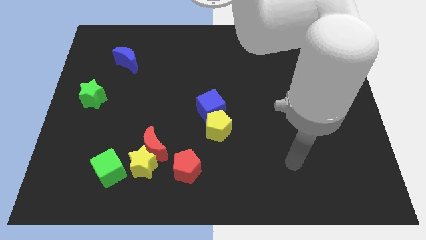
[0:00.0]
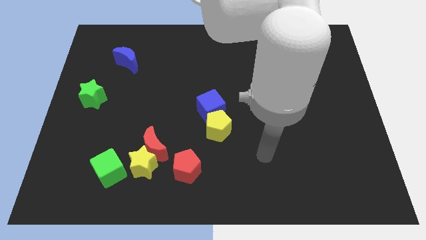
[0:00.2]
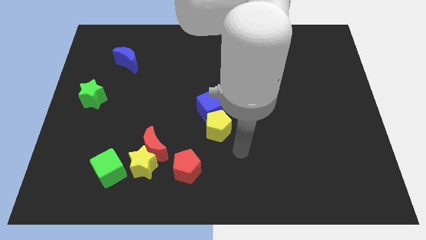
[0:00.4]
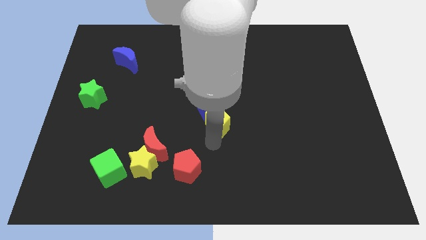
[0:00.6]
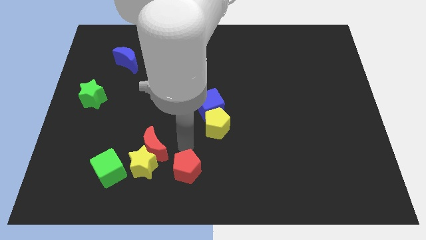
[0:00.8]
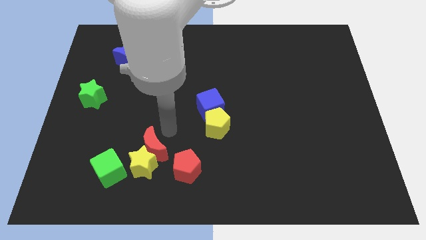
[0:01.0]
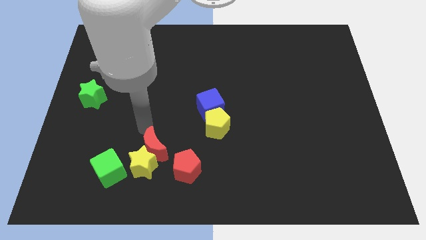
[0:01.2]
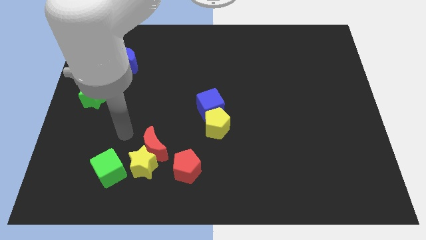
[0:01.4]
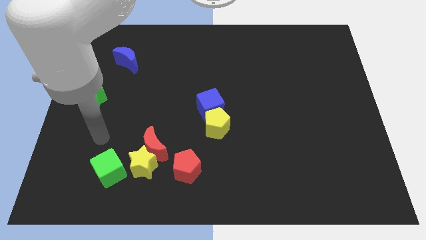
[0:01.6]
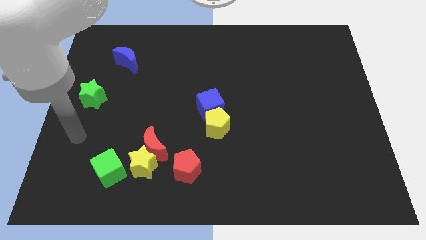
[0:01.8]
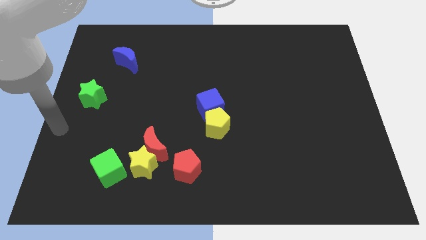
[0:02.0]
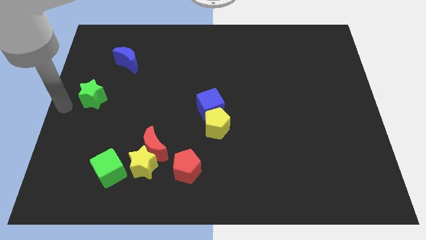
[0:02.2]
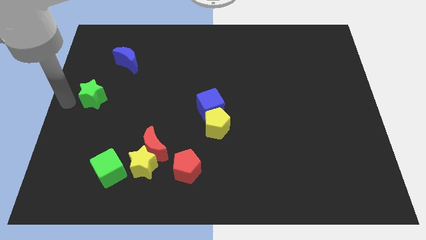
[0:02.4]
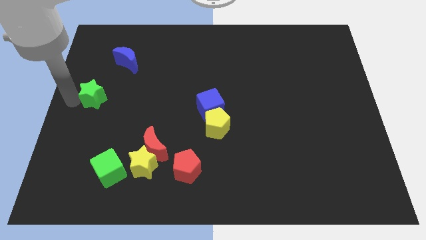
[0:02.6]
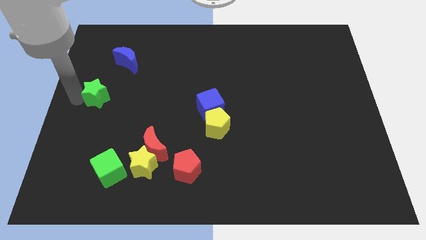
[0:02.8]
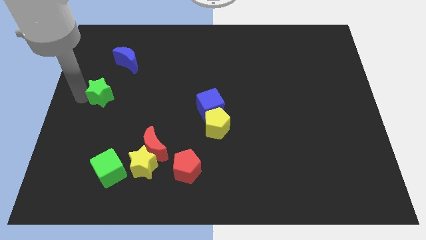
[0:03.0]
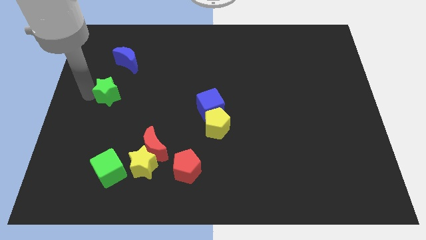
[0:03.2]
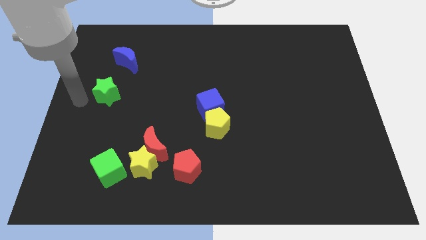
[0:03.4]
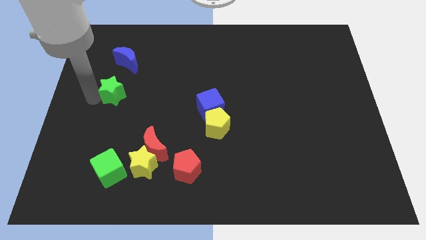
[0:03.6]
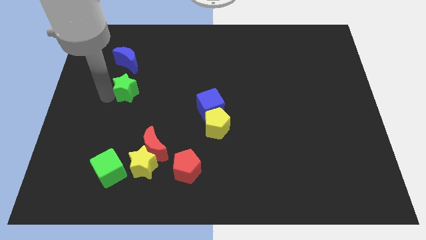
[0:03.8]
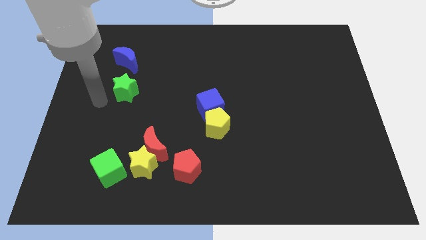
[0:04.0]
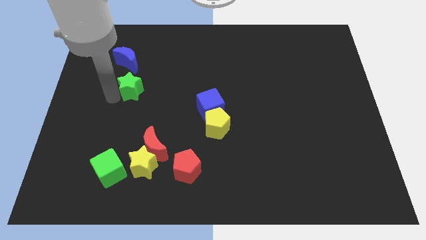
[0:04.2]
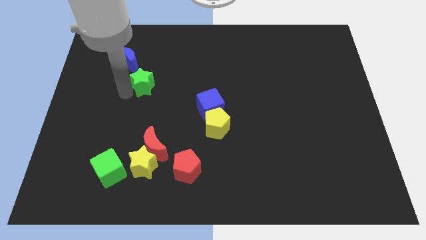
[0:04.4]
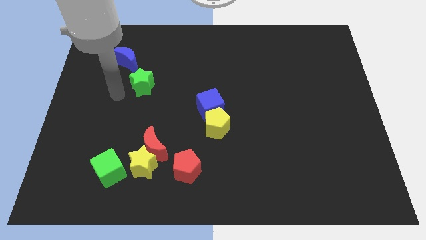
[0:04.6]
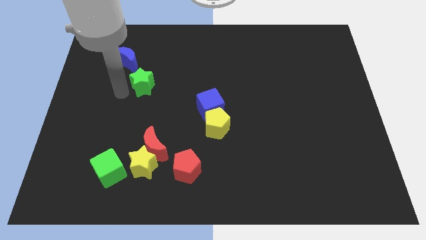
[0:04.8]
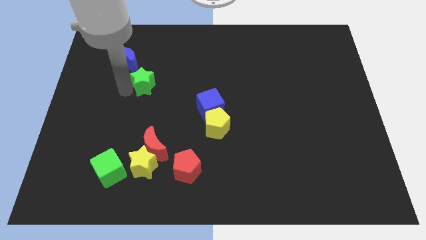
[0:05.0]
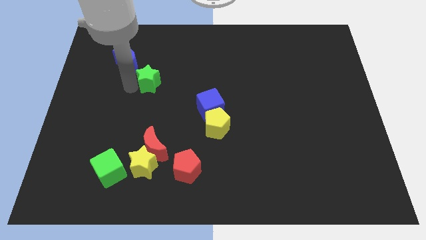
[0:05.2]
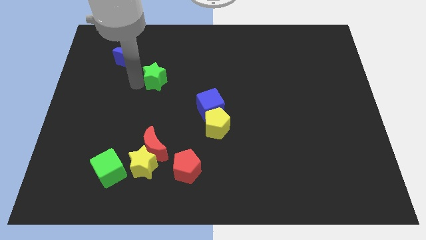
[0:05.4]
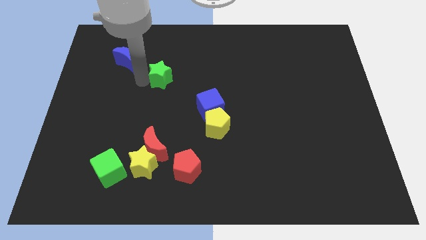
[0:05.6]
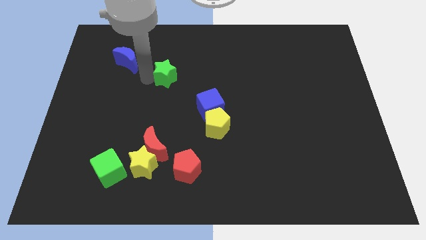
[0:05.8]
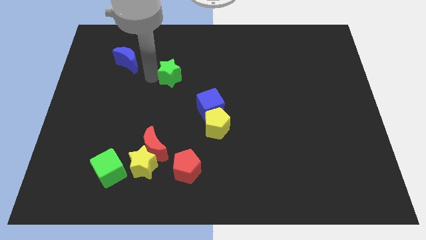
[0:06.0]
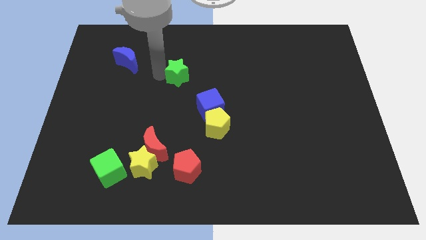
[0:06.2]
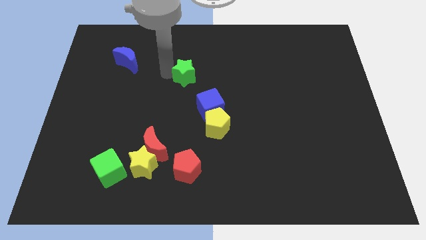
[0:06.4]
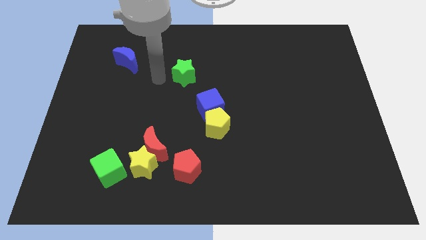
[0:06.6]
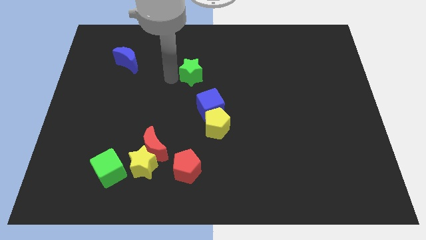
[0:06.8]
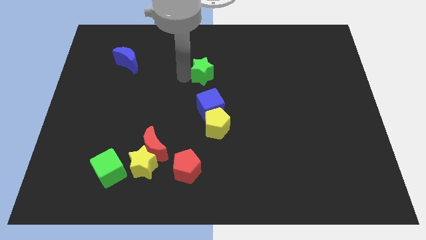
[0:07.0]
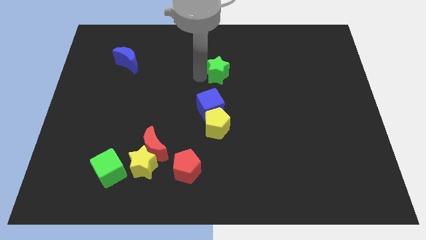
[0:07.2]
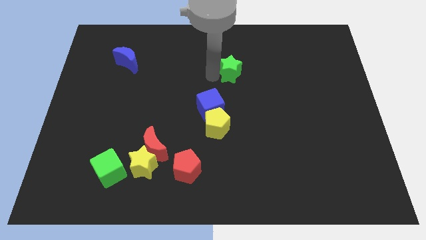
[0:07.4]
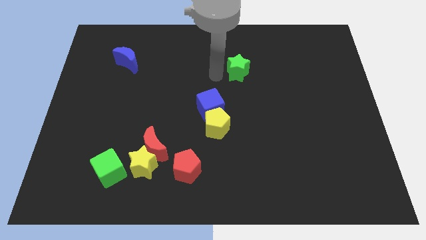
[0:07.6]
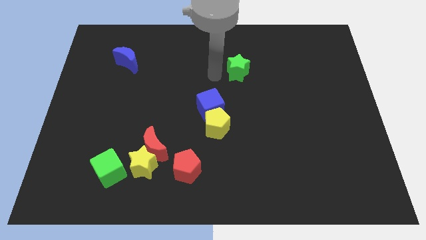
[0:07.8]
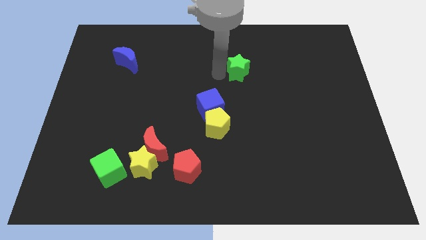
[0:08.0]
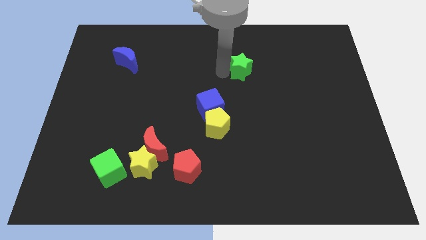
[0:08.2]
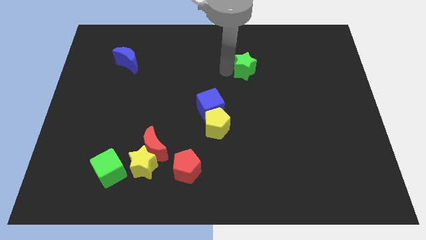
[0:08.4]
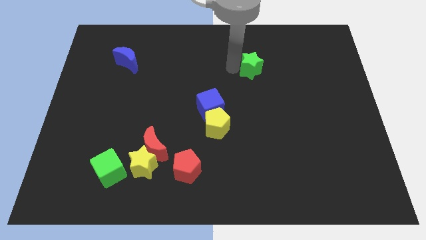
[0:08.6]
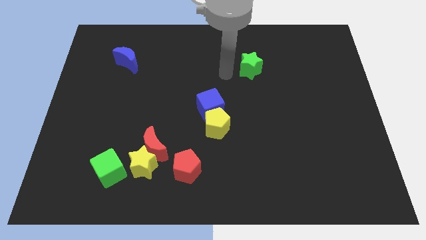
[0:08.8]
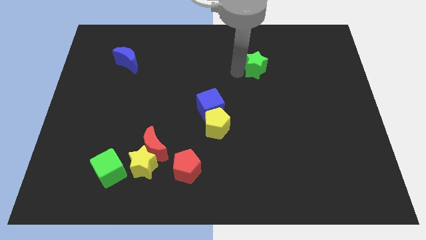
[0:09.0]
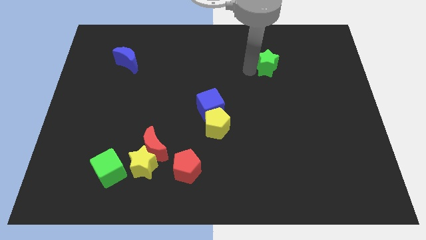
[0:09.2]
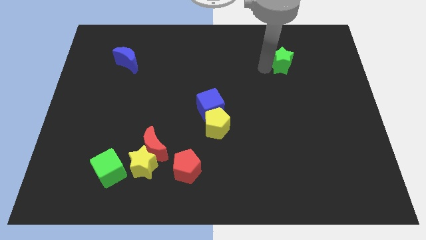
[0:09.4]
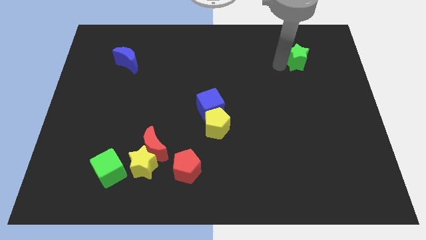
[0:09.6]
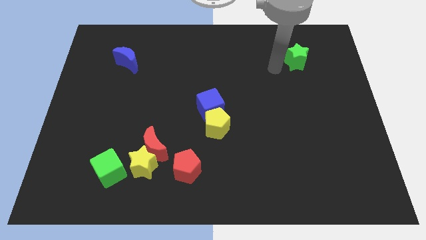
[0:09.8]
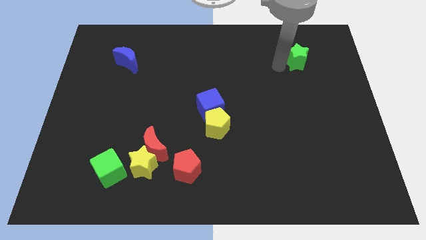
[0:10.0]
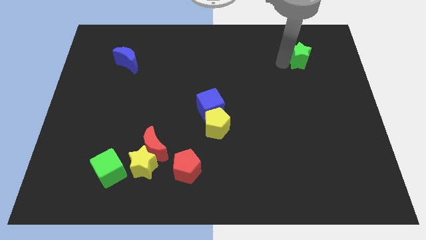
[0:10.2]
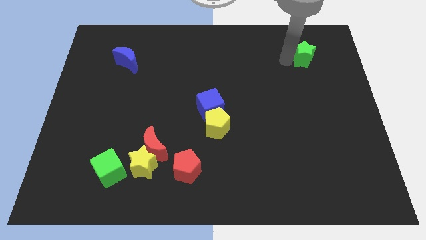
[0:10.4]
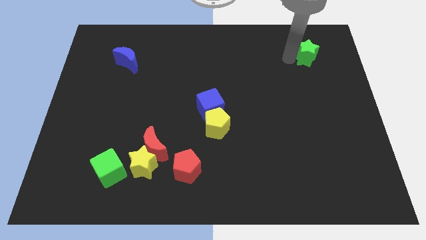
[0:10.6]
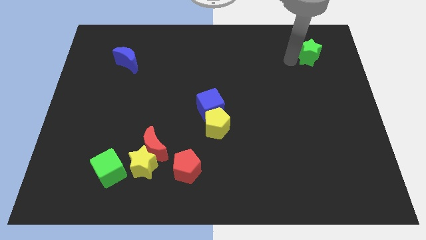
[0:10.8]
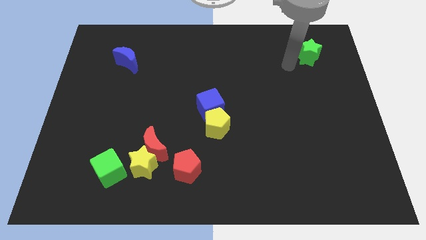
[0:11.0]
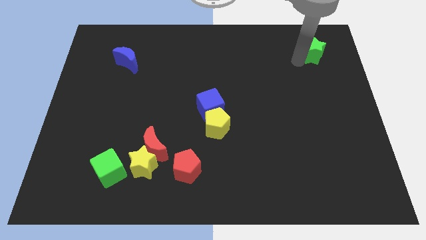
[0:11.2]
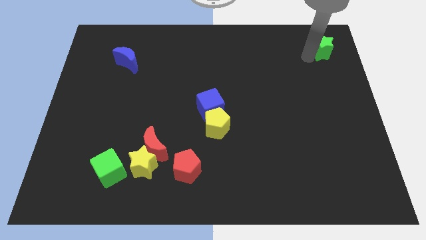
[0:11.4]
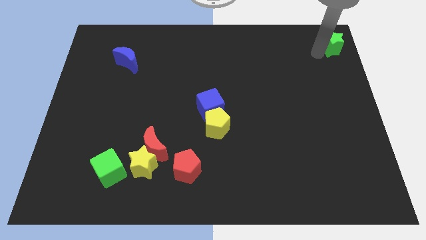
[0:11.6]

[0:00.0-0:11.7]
slide the green star to the top right of the board
